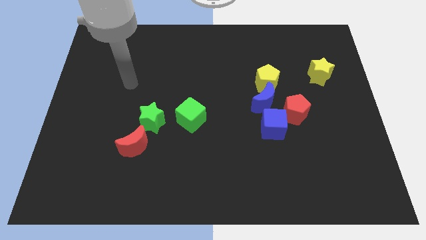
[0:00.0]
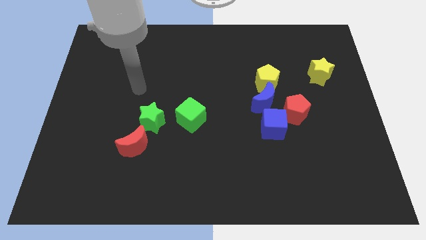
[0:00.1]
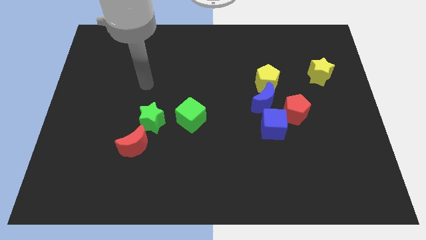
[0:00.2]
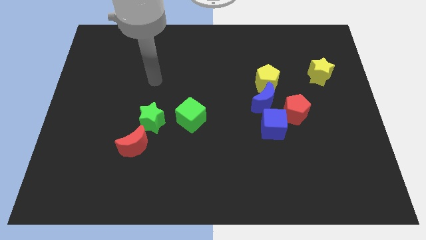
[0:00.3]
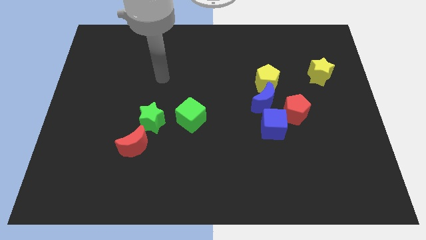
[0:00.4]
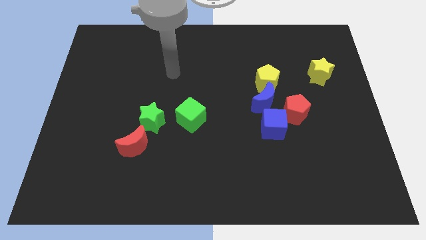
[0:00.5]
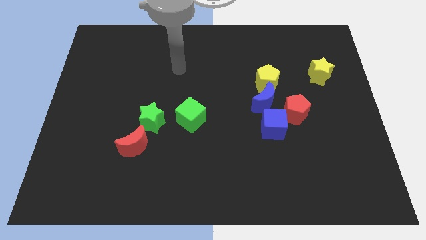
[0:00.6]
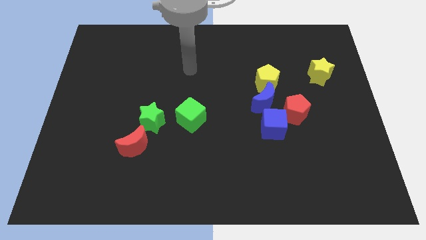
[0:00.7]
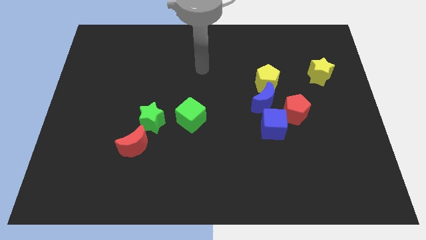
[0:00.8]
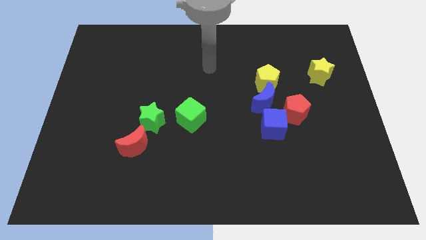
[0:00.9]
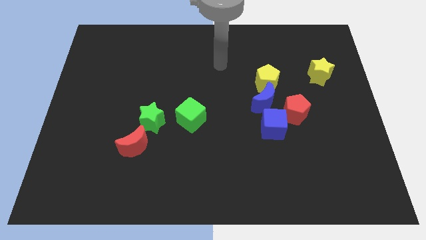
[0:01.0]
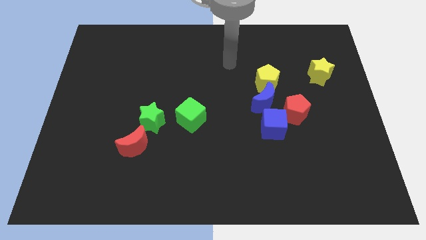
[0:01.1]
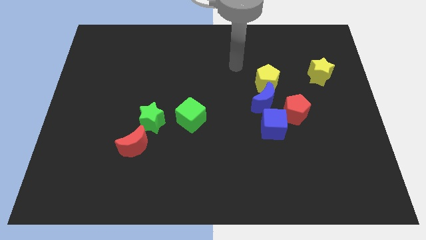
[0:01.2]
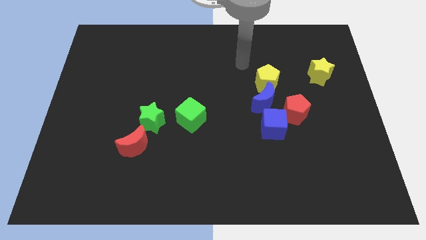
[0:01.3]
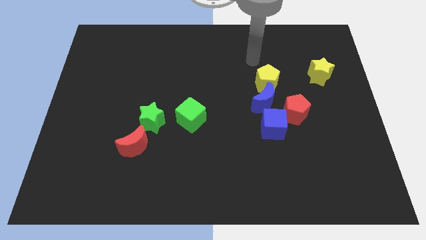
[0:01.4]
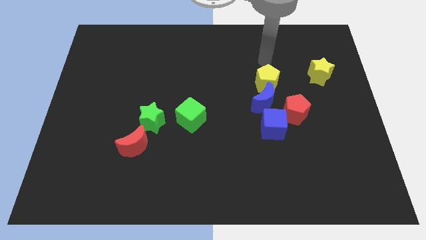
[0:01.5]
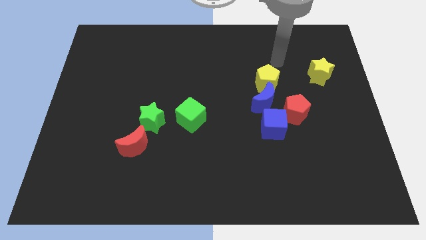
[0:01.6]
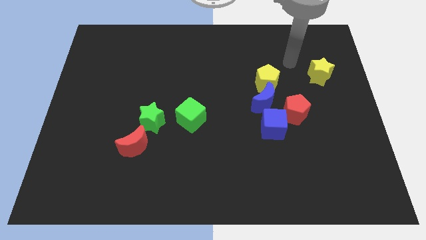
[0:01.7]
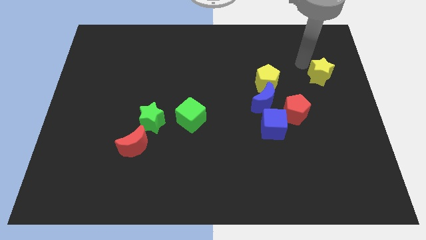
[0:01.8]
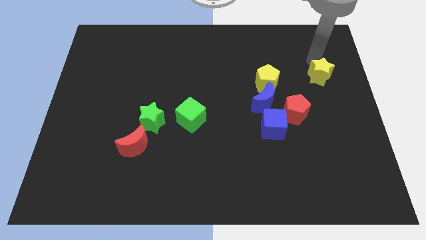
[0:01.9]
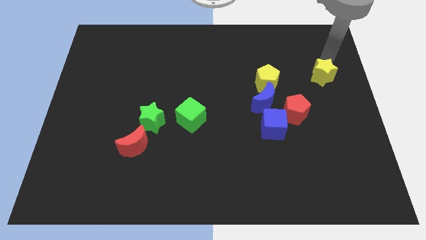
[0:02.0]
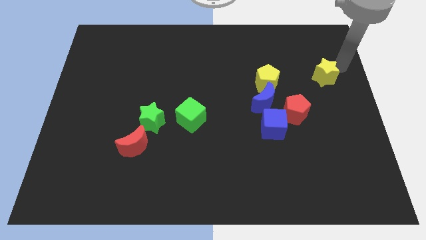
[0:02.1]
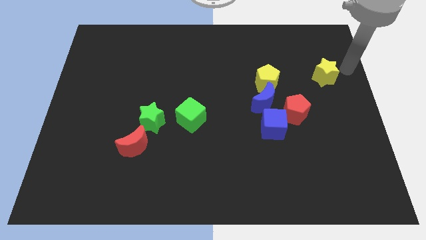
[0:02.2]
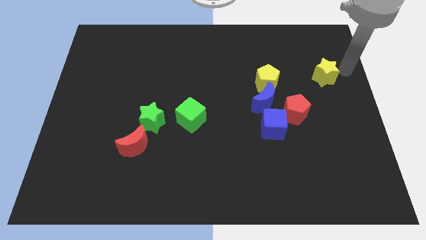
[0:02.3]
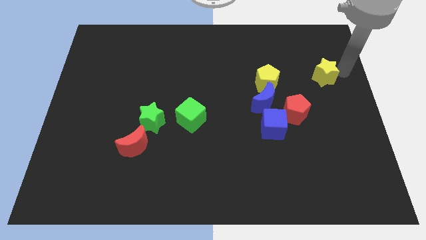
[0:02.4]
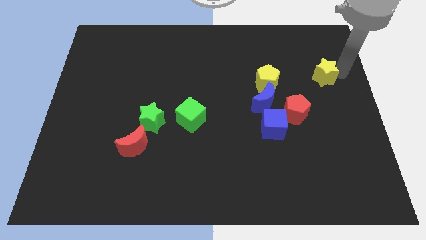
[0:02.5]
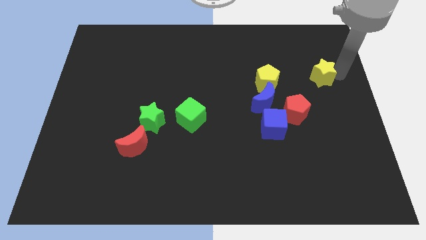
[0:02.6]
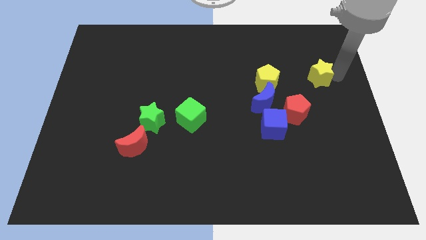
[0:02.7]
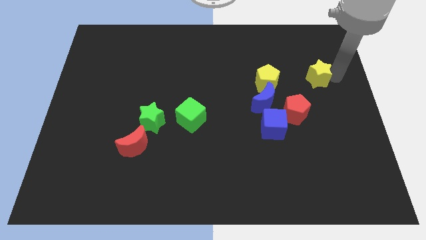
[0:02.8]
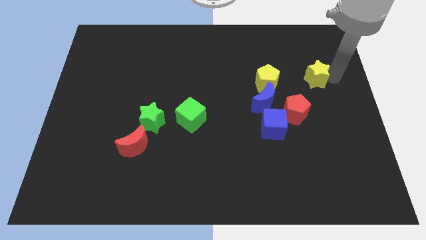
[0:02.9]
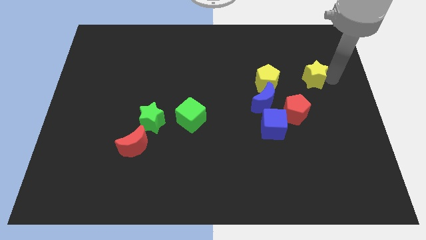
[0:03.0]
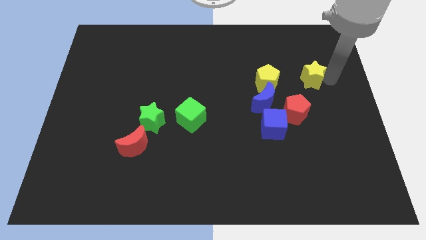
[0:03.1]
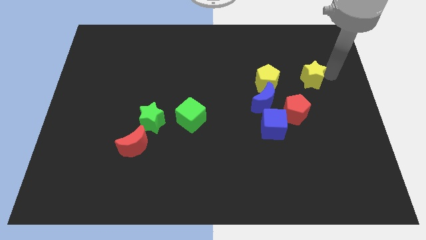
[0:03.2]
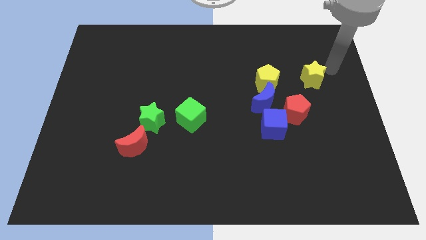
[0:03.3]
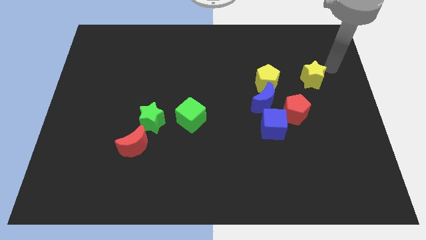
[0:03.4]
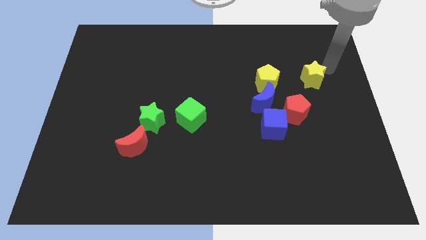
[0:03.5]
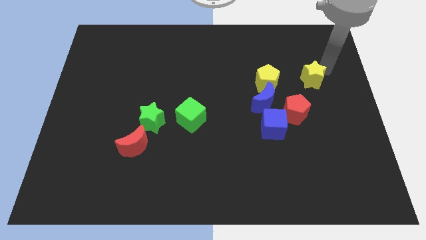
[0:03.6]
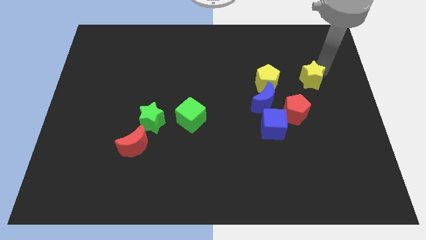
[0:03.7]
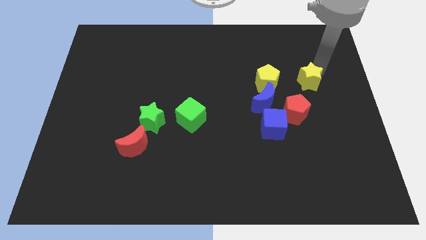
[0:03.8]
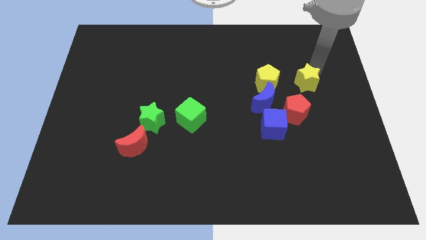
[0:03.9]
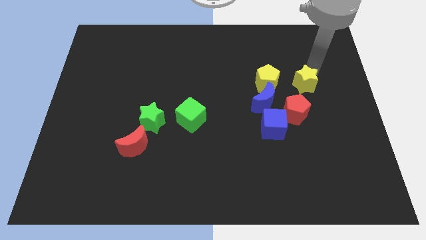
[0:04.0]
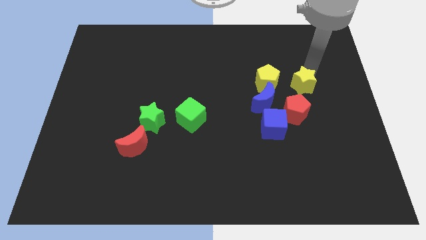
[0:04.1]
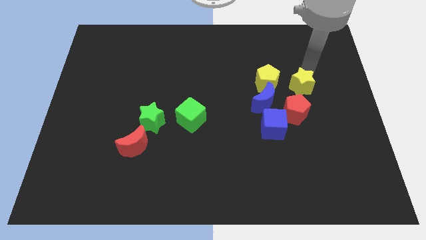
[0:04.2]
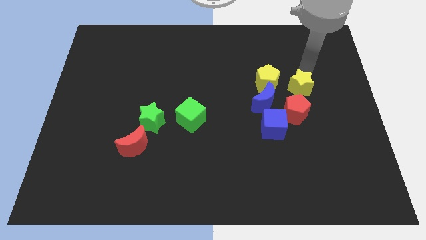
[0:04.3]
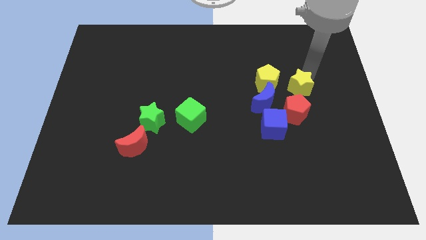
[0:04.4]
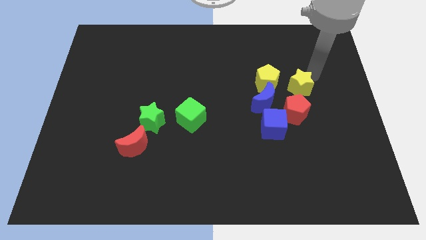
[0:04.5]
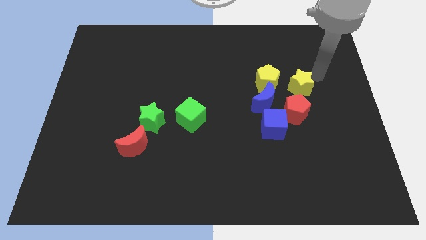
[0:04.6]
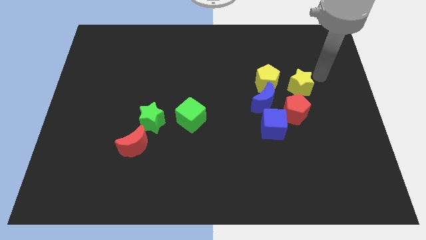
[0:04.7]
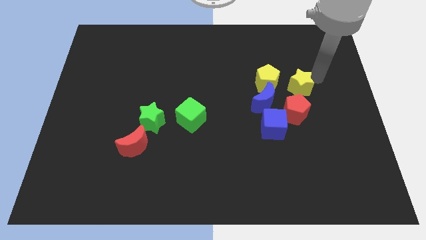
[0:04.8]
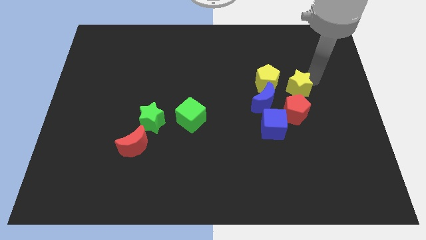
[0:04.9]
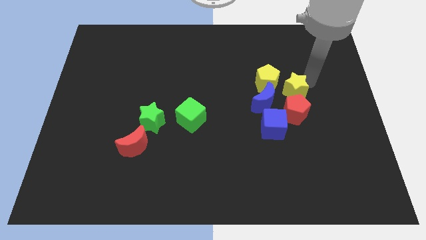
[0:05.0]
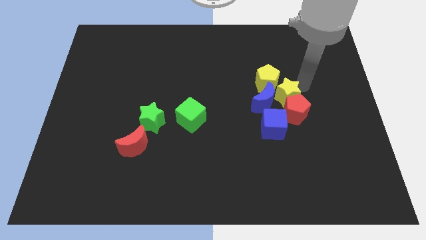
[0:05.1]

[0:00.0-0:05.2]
push the yellow star next to the blue moon
